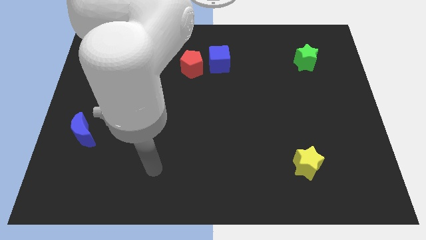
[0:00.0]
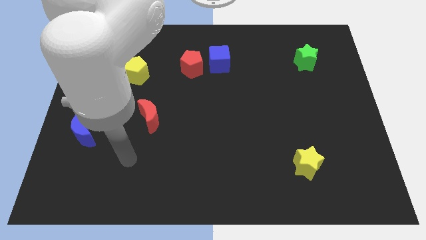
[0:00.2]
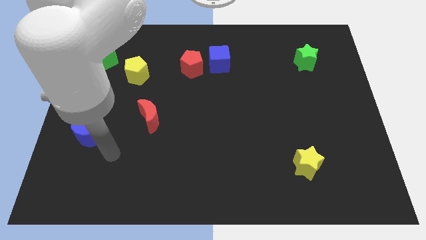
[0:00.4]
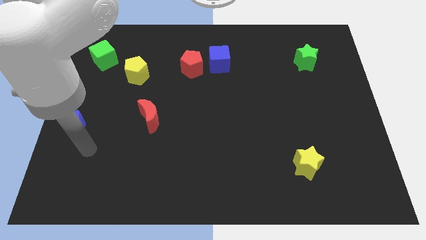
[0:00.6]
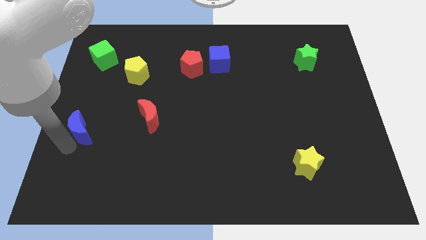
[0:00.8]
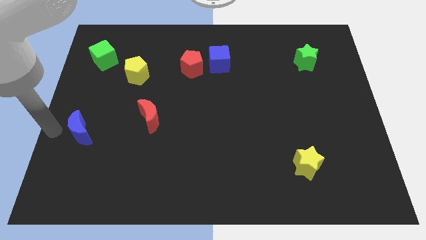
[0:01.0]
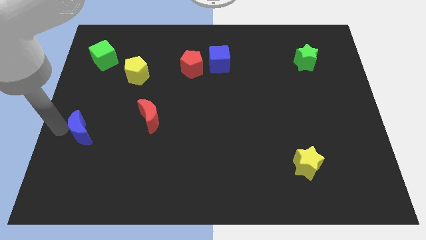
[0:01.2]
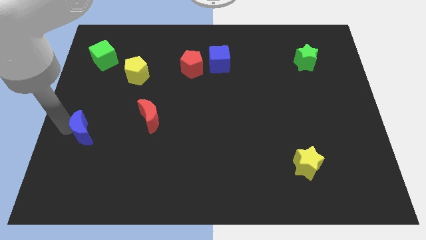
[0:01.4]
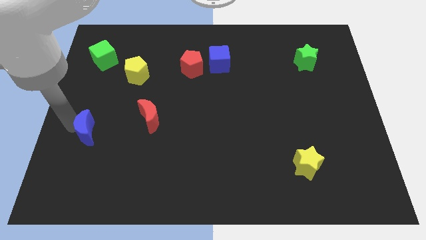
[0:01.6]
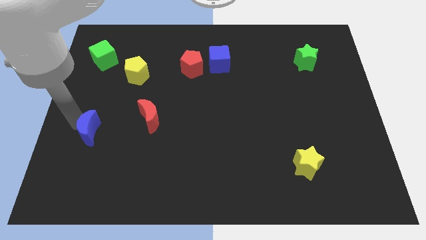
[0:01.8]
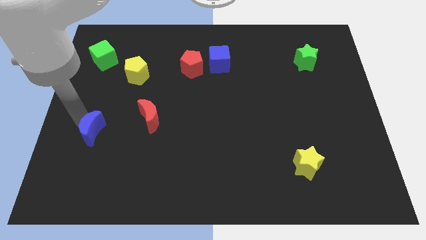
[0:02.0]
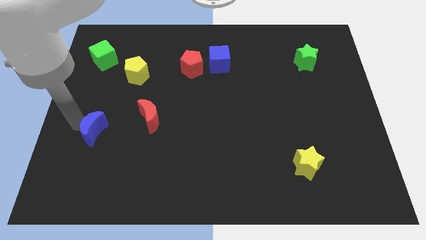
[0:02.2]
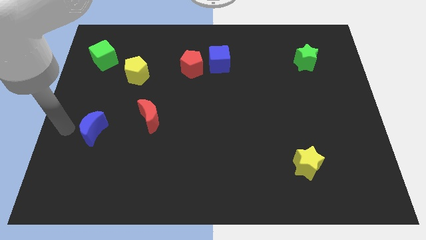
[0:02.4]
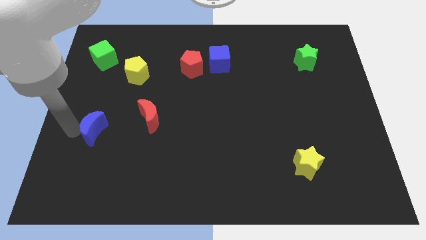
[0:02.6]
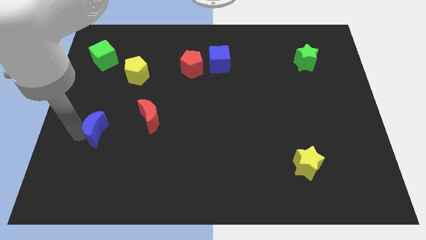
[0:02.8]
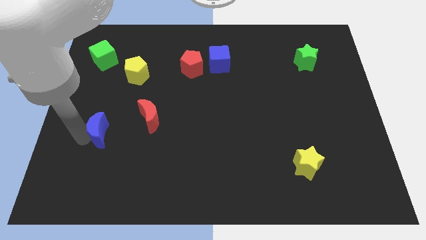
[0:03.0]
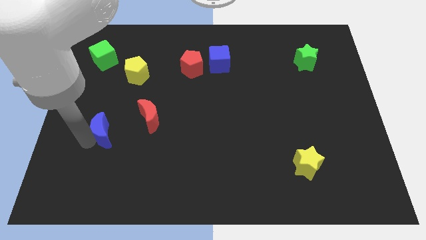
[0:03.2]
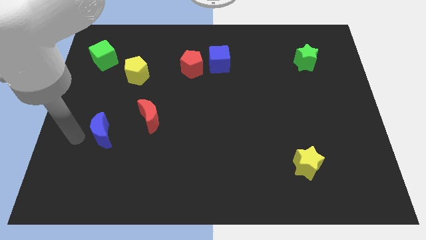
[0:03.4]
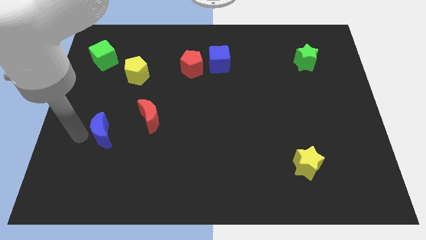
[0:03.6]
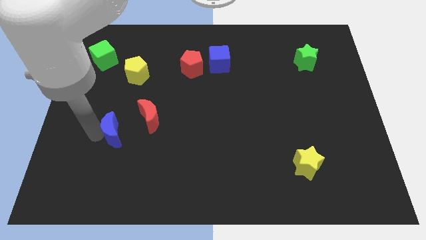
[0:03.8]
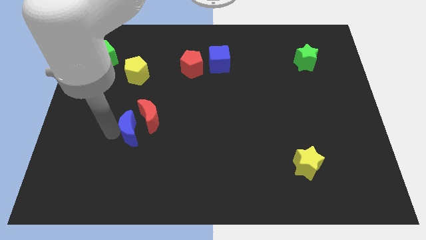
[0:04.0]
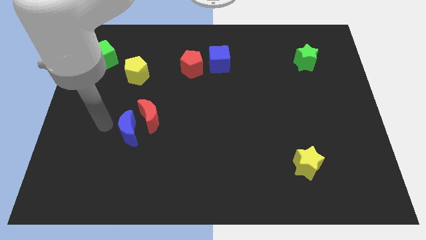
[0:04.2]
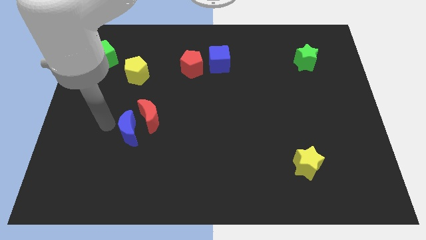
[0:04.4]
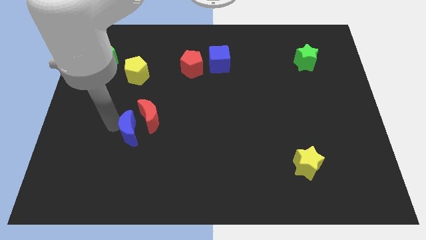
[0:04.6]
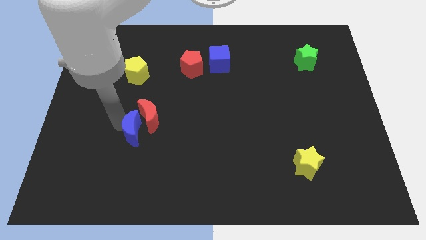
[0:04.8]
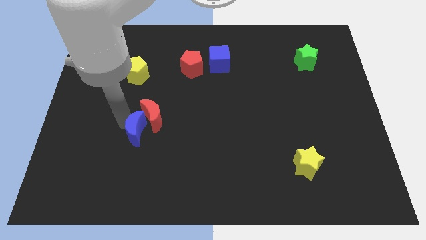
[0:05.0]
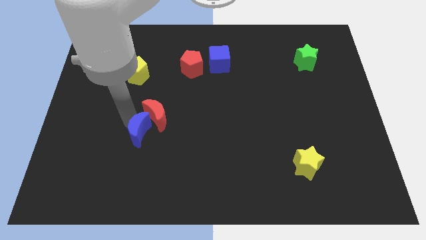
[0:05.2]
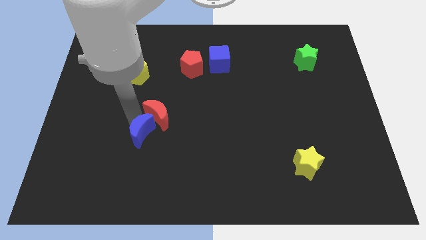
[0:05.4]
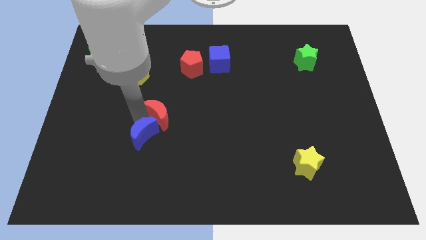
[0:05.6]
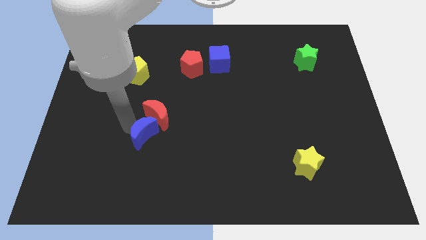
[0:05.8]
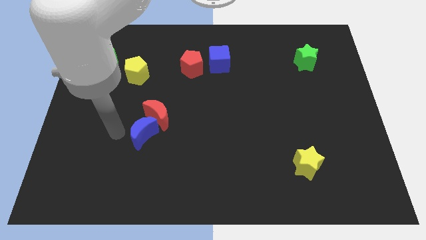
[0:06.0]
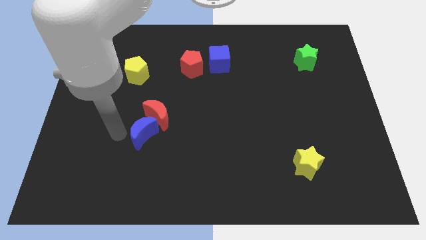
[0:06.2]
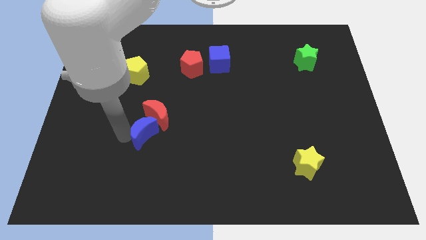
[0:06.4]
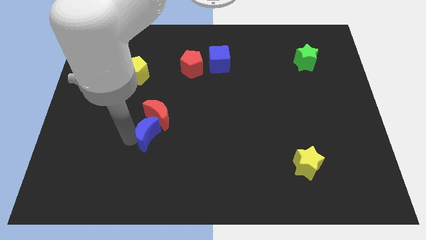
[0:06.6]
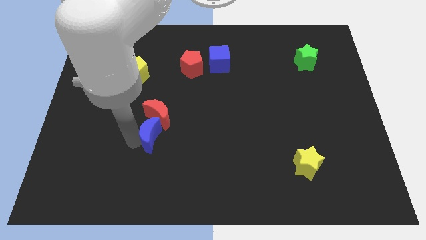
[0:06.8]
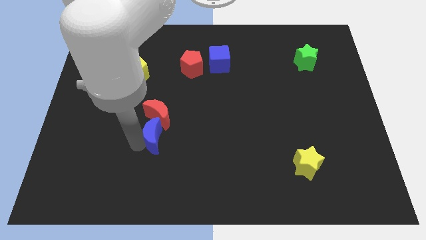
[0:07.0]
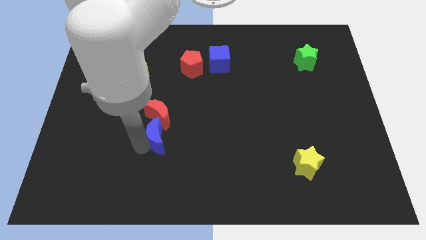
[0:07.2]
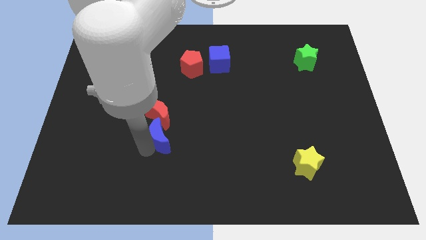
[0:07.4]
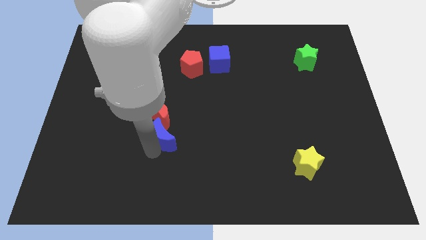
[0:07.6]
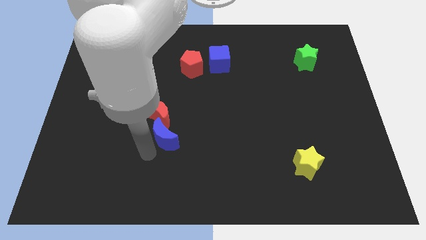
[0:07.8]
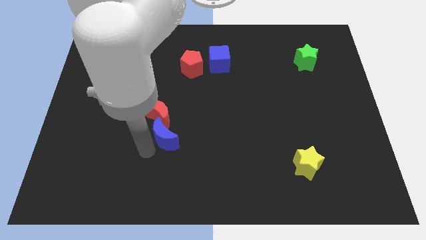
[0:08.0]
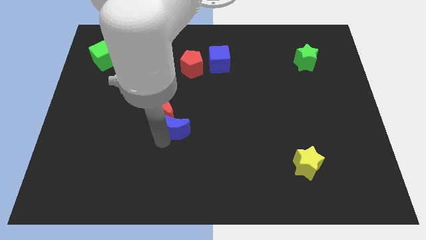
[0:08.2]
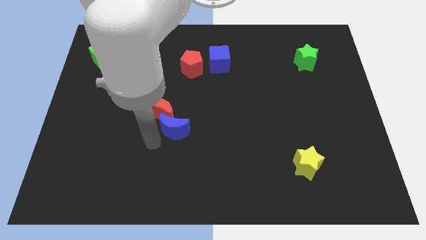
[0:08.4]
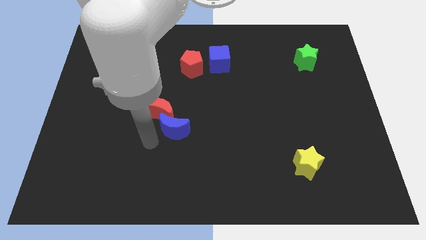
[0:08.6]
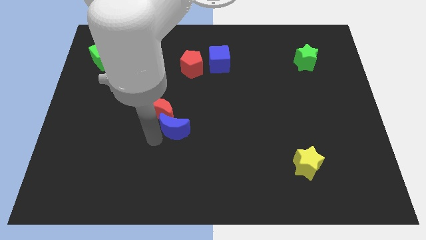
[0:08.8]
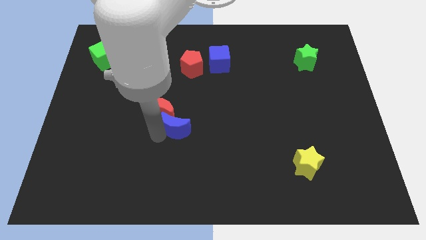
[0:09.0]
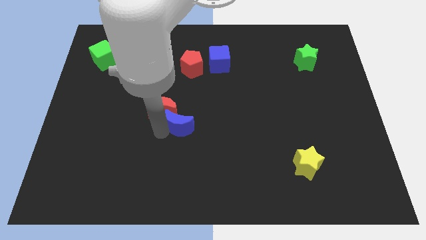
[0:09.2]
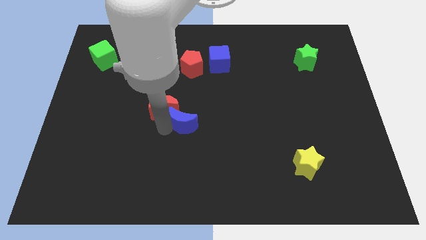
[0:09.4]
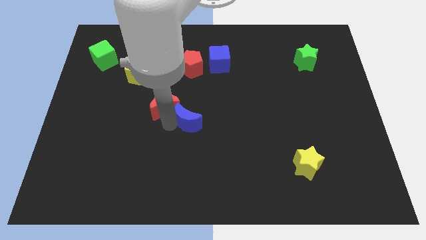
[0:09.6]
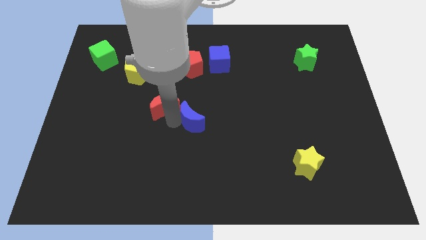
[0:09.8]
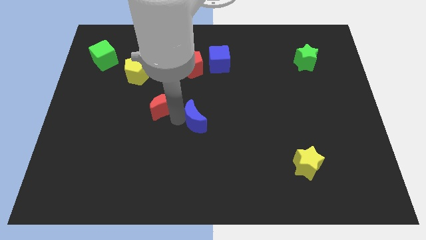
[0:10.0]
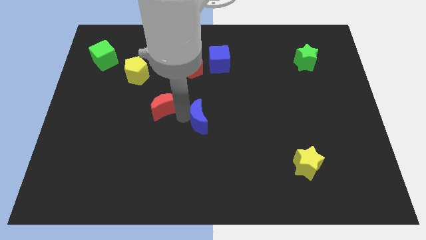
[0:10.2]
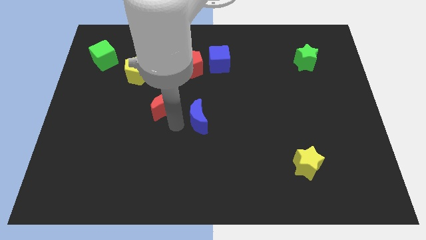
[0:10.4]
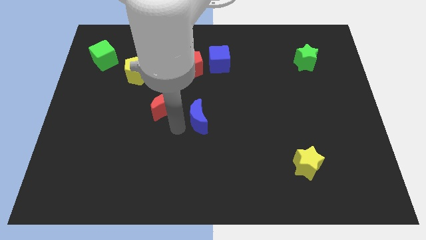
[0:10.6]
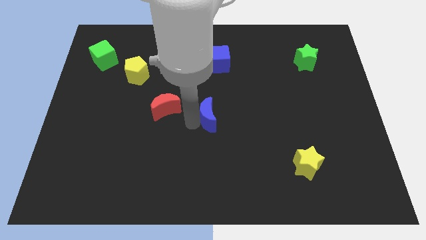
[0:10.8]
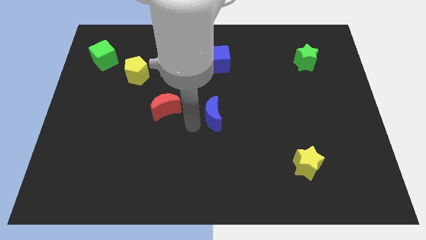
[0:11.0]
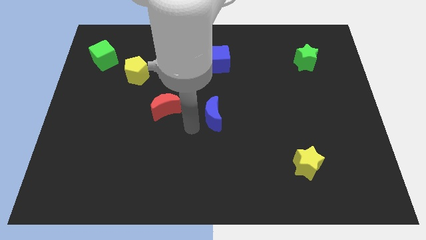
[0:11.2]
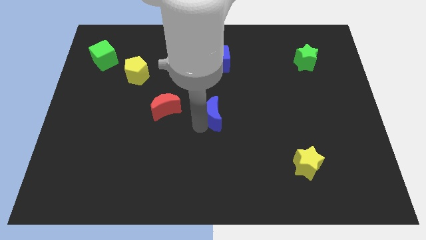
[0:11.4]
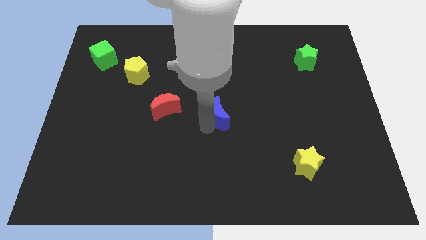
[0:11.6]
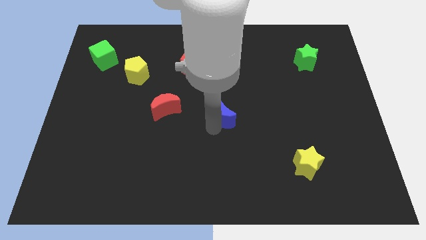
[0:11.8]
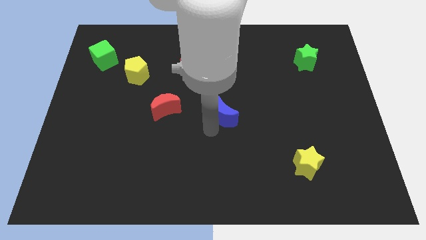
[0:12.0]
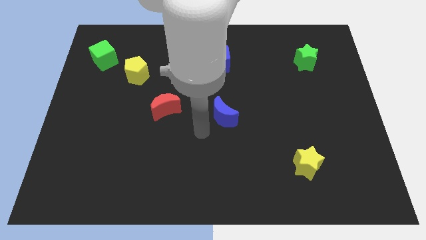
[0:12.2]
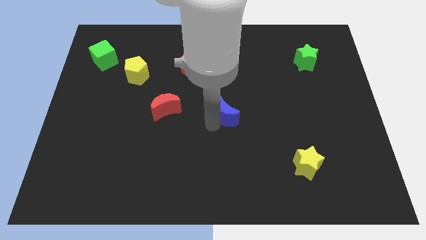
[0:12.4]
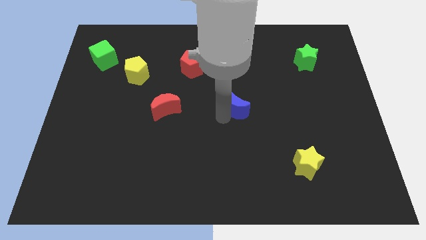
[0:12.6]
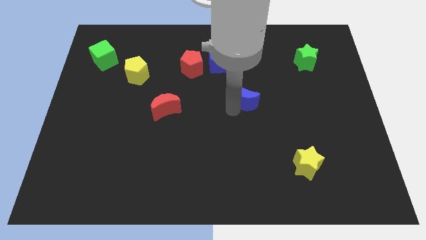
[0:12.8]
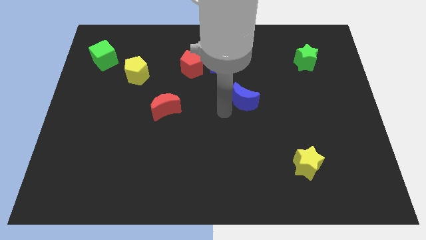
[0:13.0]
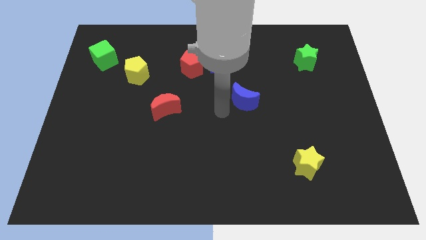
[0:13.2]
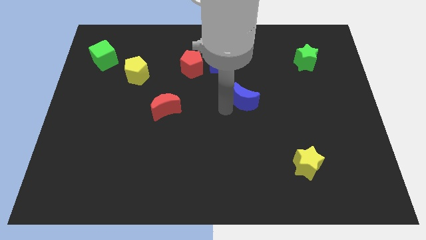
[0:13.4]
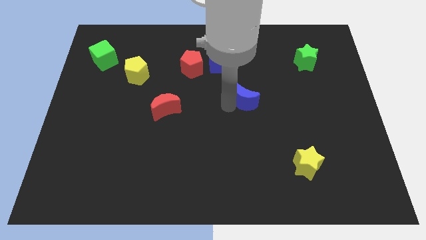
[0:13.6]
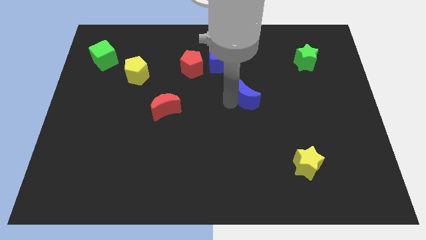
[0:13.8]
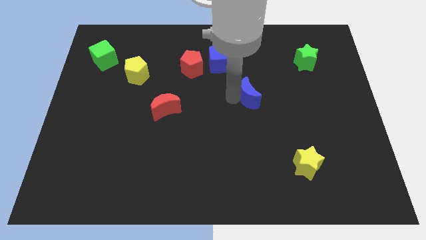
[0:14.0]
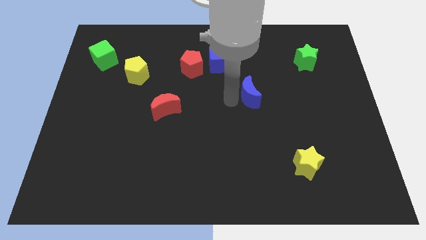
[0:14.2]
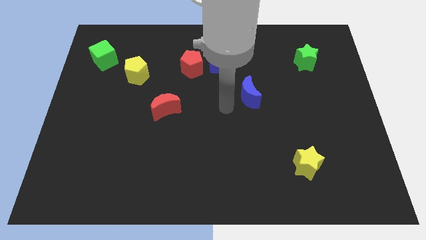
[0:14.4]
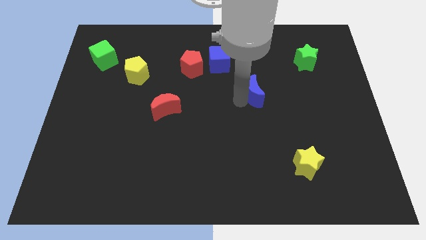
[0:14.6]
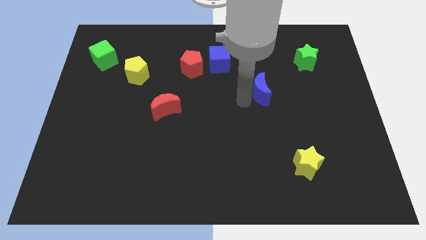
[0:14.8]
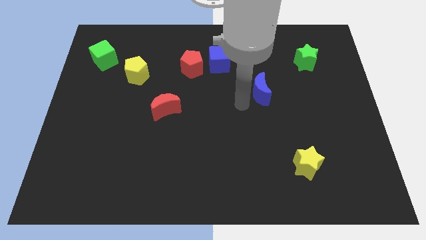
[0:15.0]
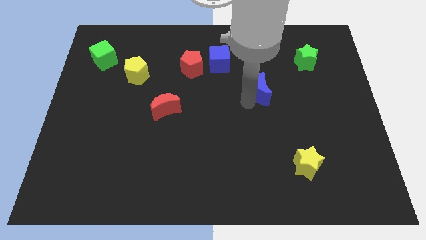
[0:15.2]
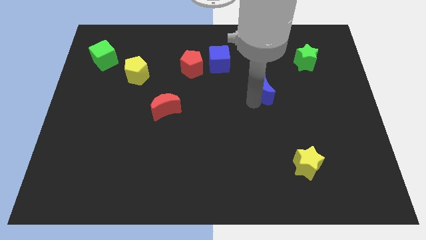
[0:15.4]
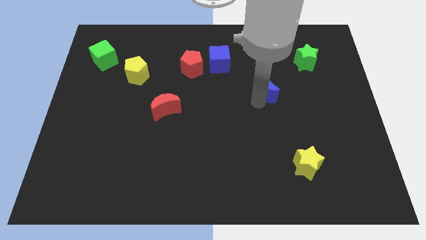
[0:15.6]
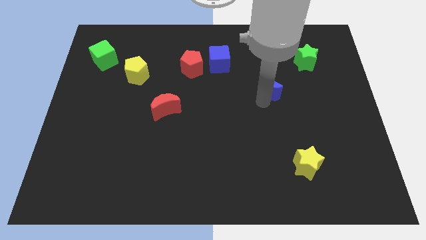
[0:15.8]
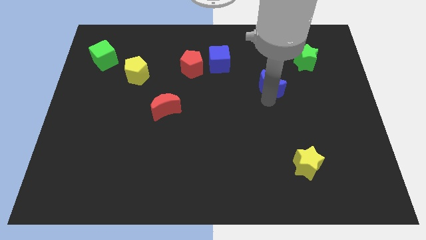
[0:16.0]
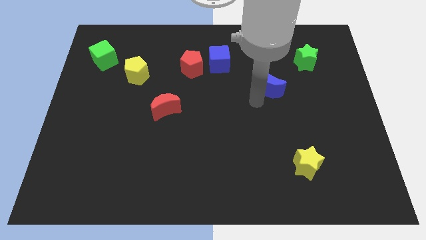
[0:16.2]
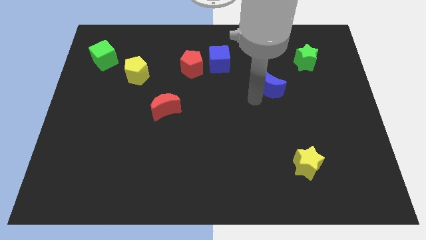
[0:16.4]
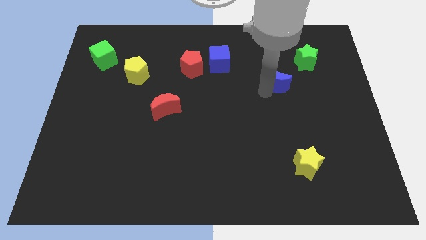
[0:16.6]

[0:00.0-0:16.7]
put the blue moon to the bottom left of the green star
